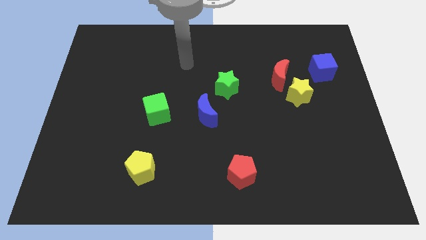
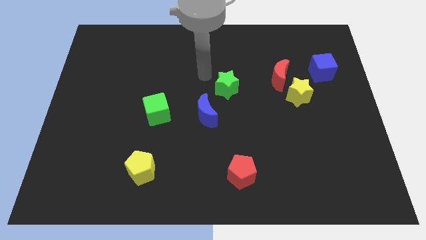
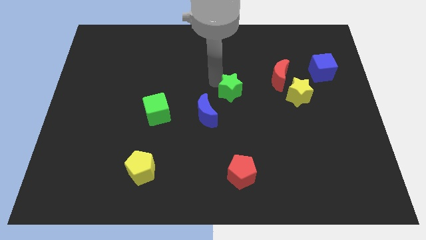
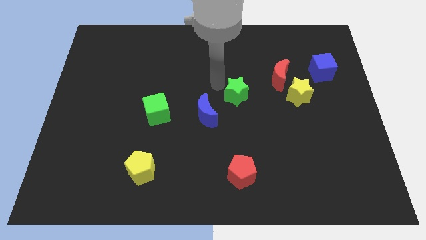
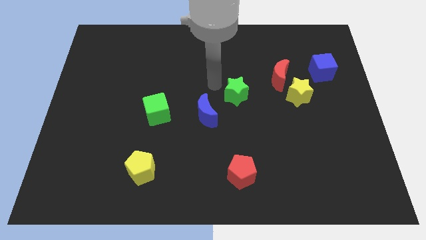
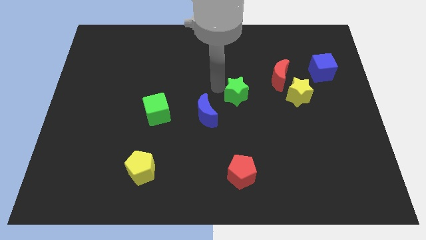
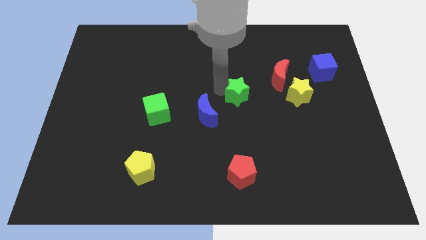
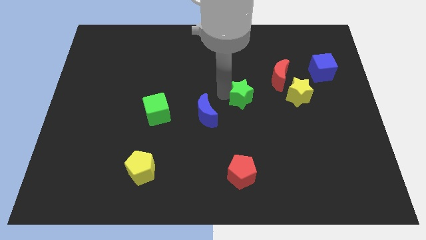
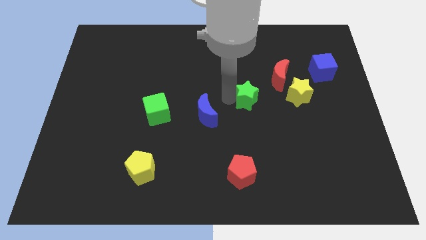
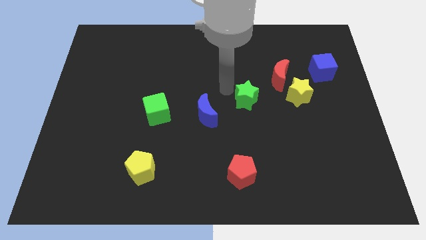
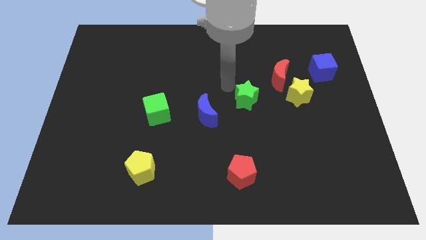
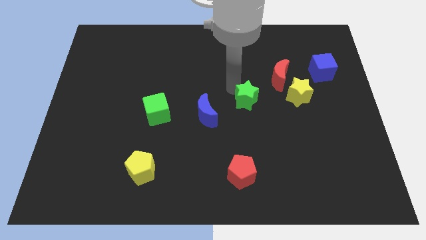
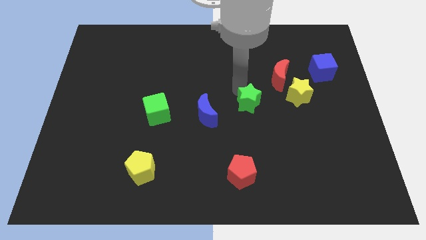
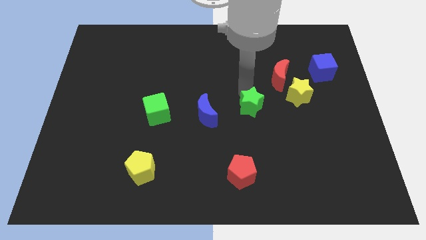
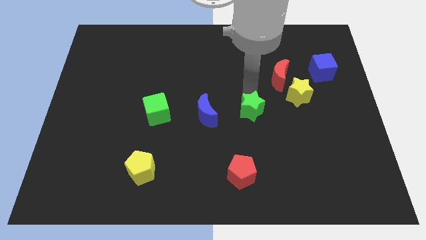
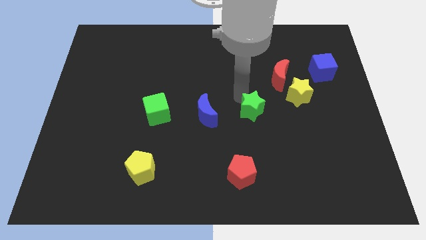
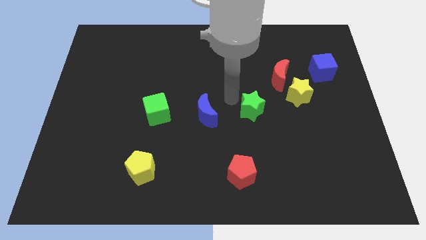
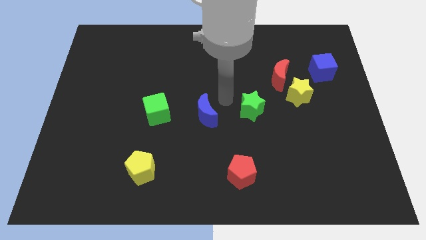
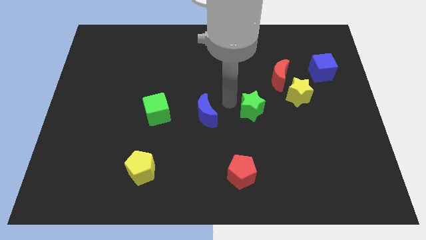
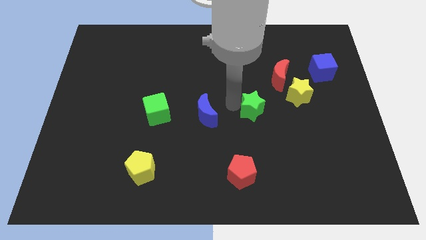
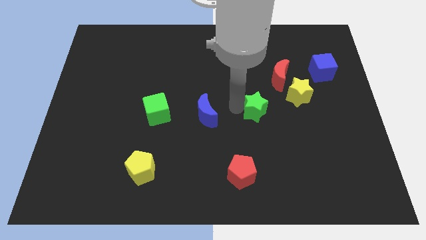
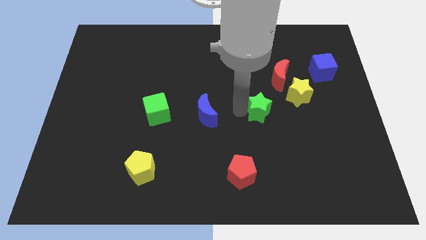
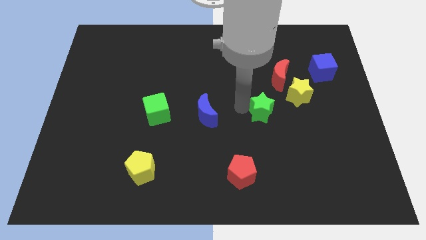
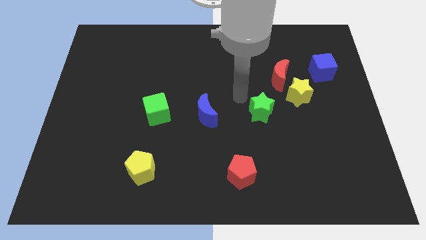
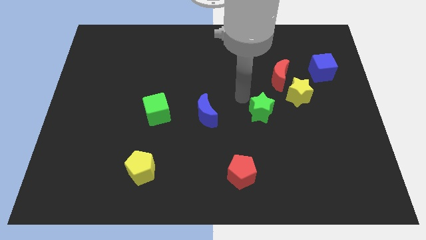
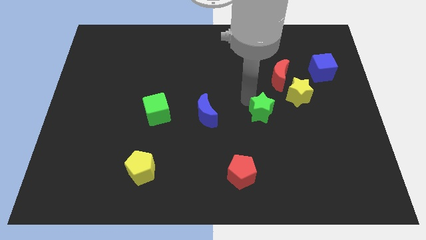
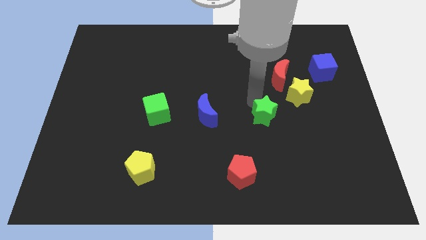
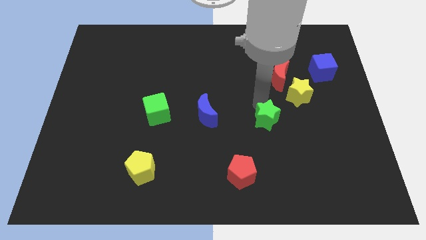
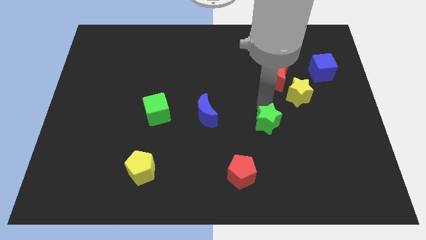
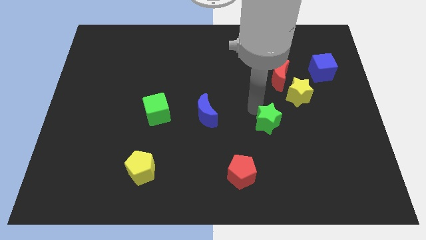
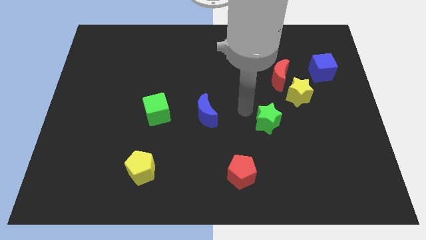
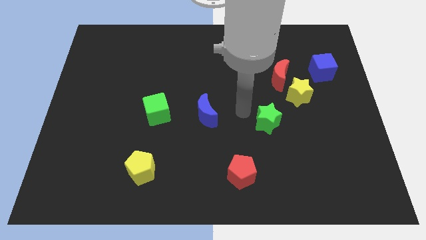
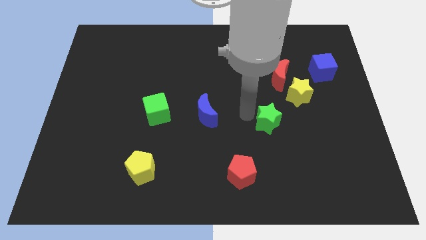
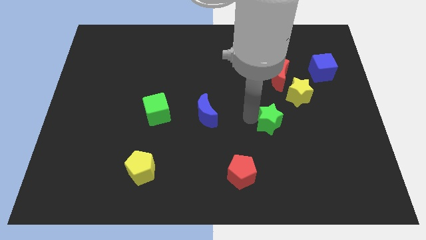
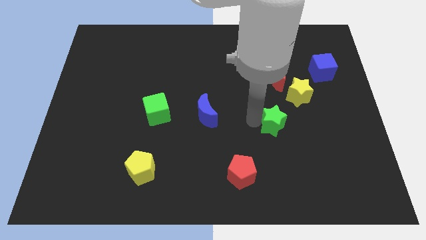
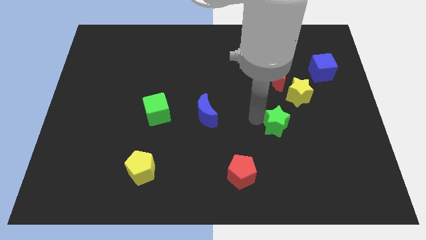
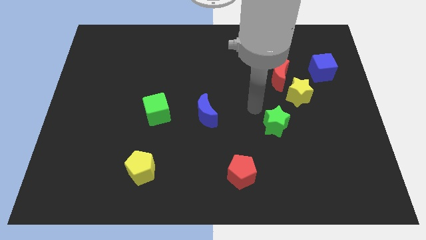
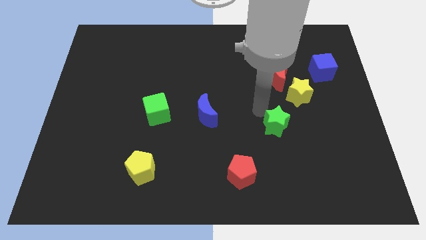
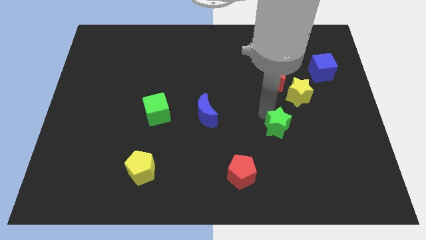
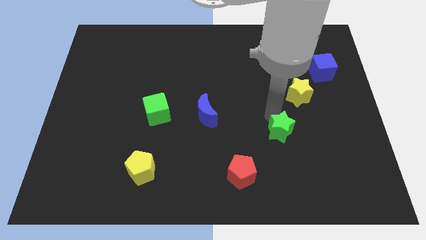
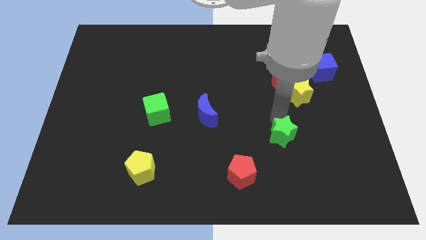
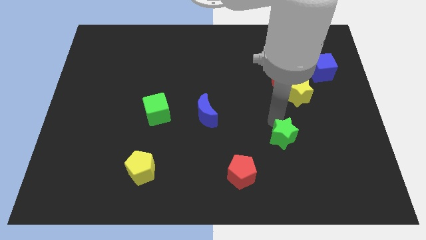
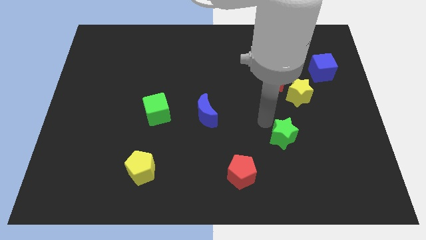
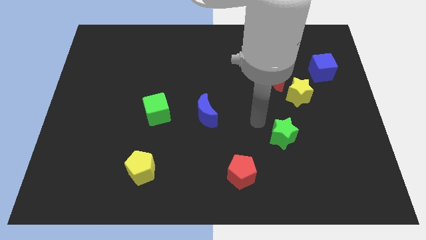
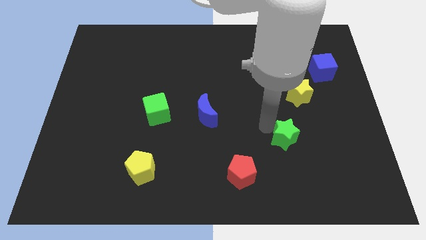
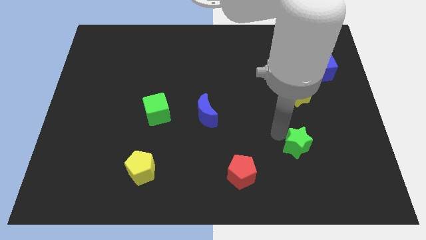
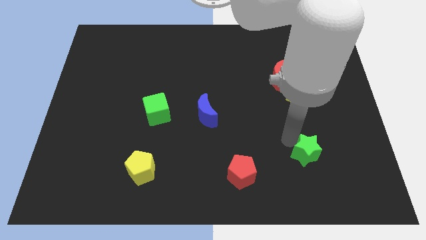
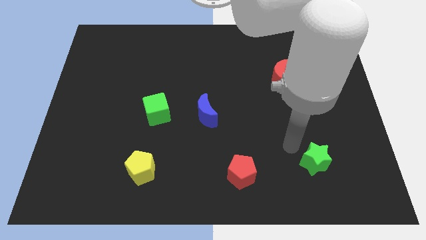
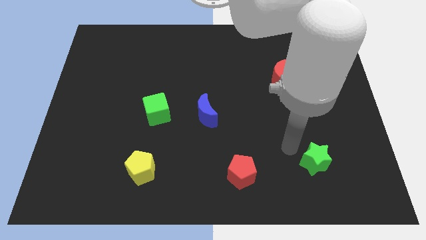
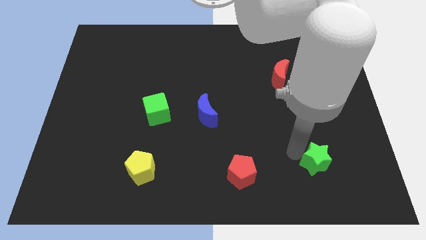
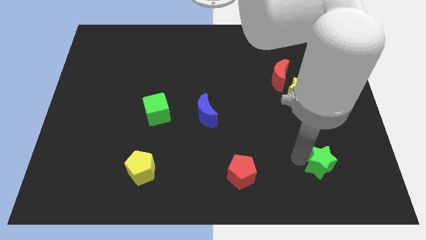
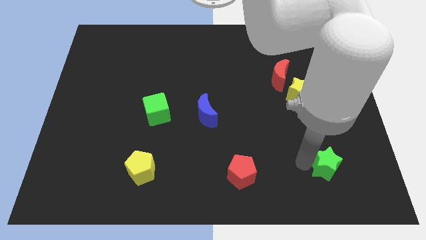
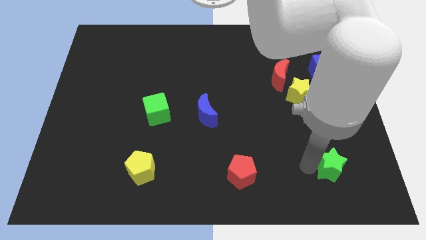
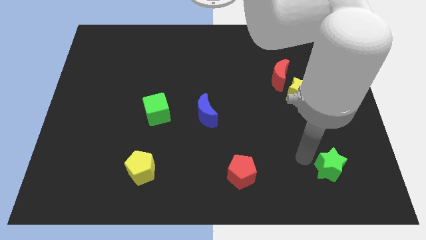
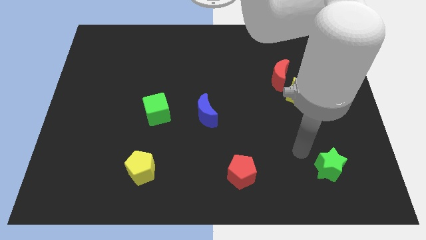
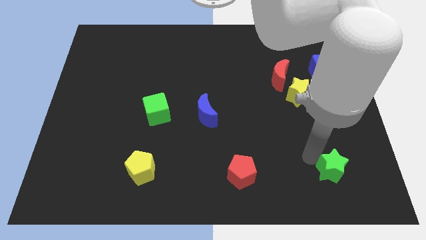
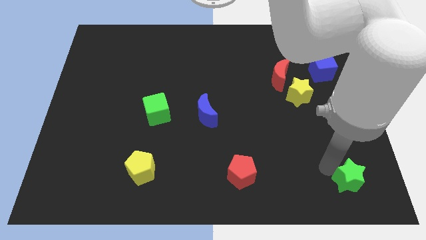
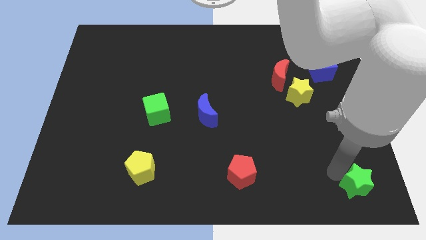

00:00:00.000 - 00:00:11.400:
put the green star to the bottom right of the board
